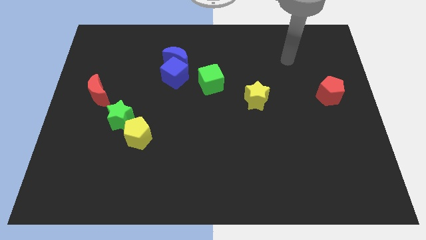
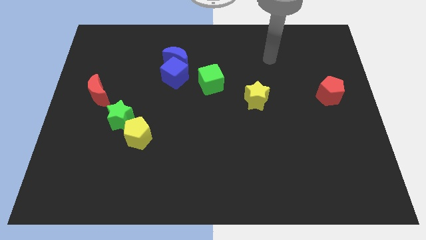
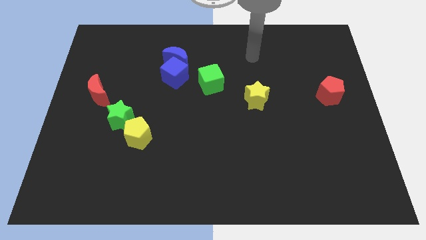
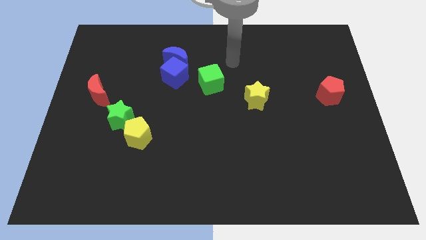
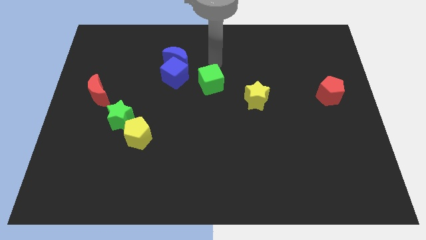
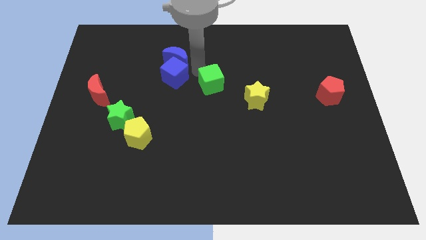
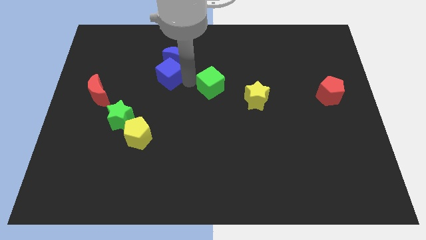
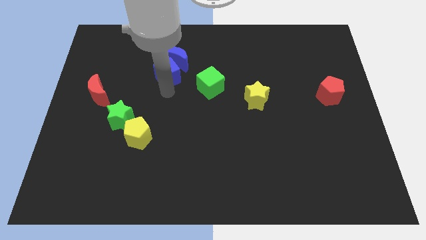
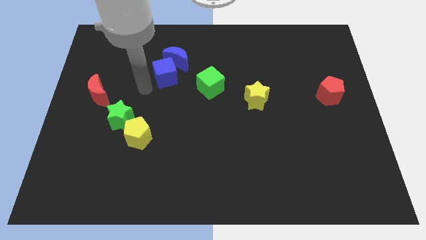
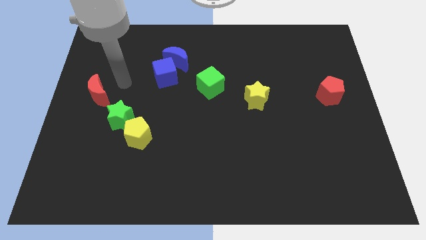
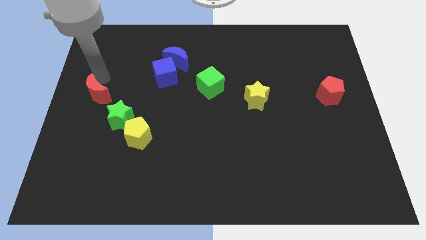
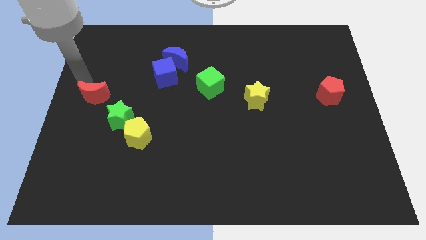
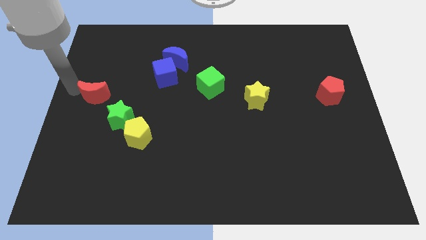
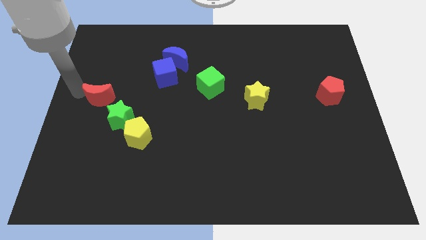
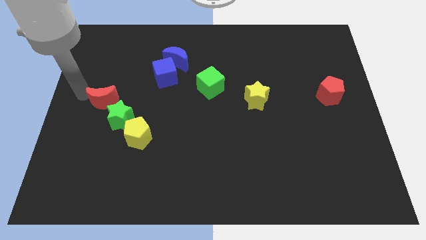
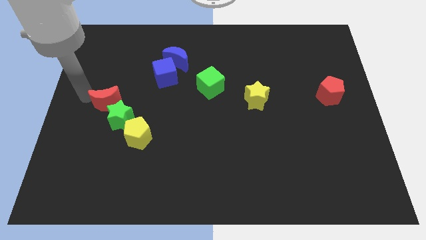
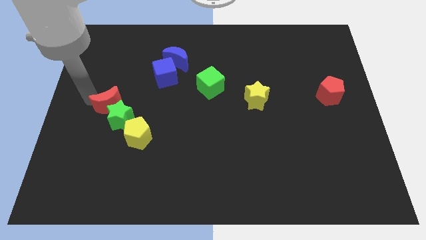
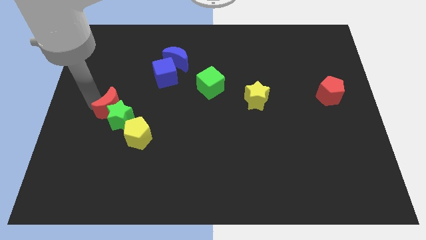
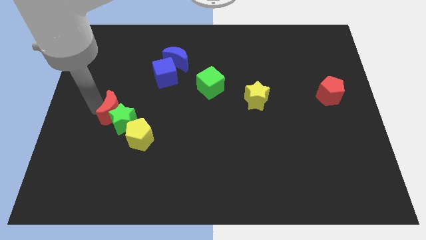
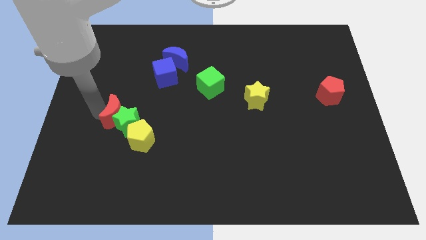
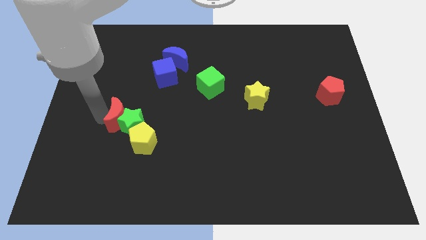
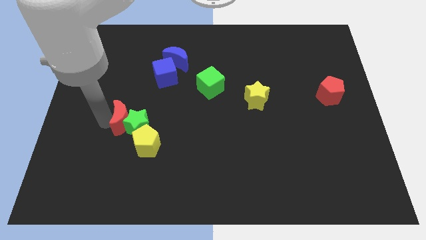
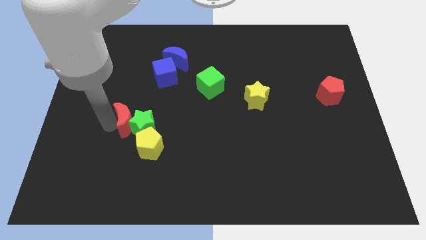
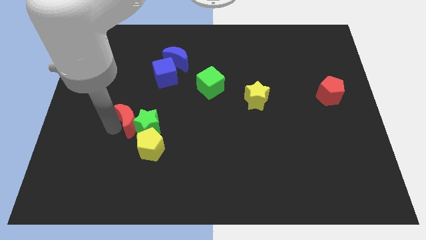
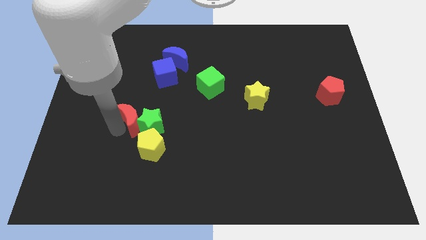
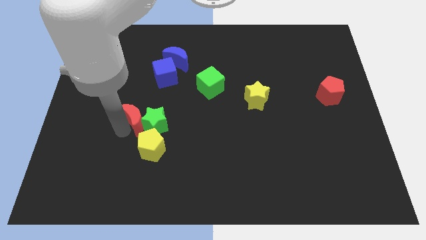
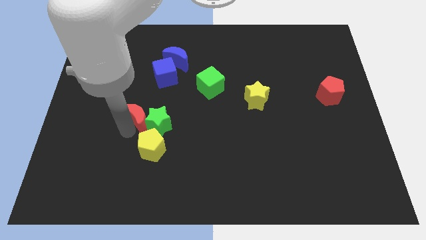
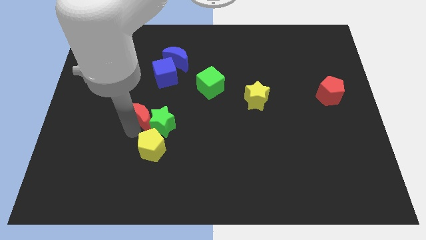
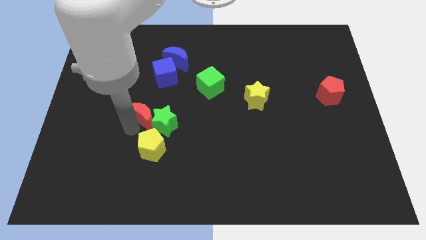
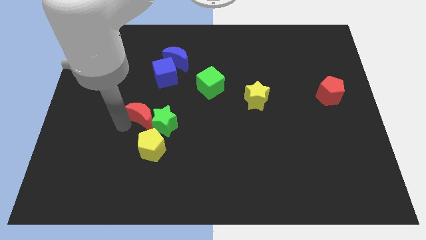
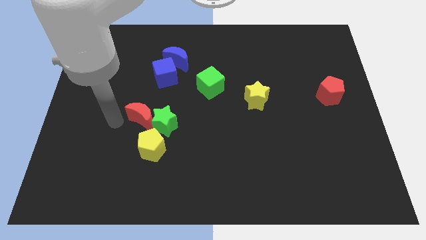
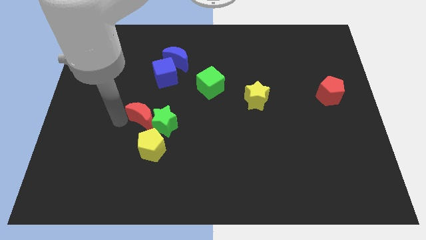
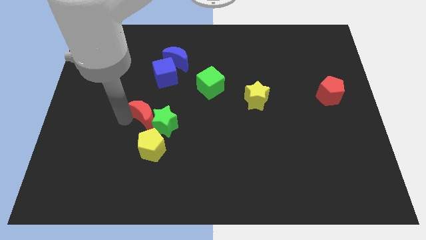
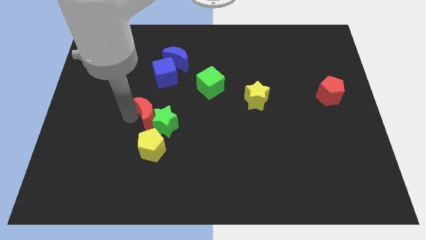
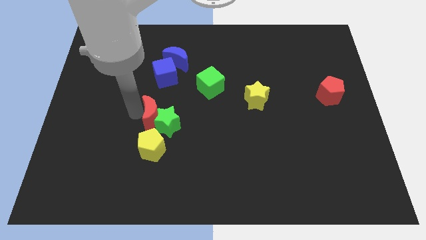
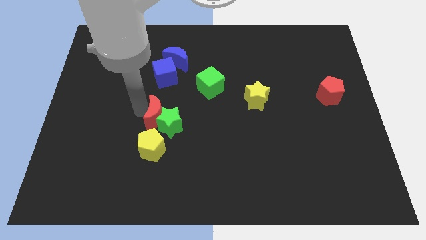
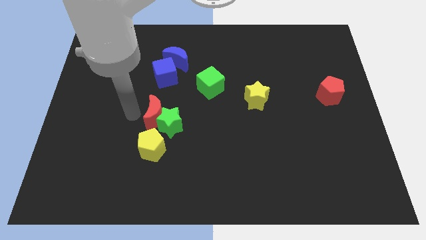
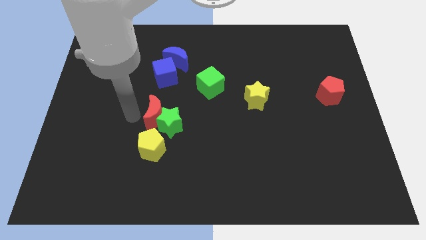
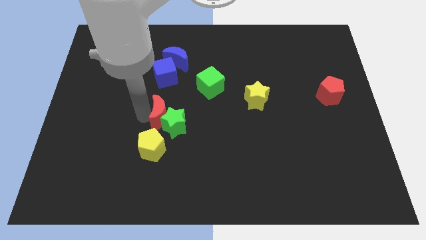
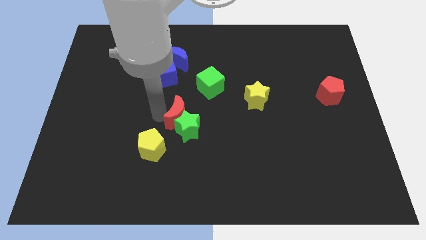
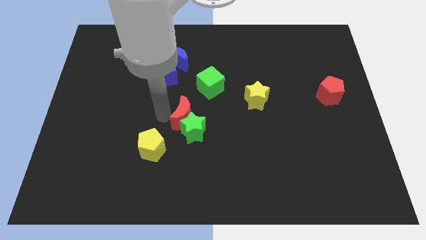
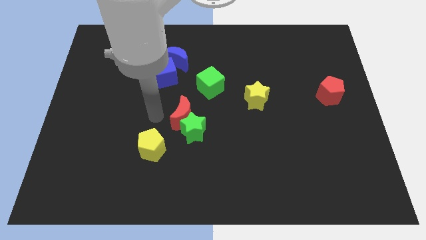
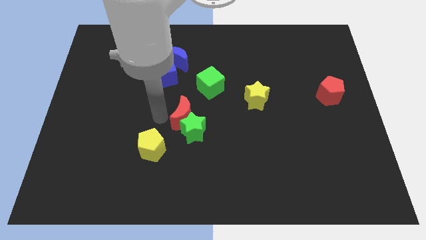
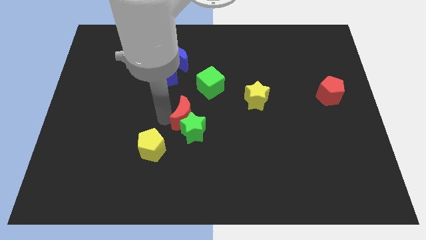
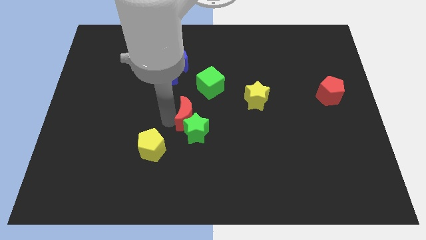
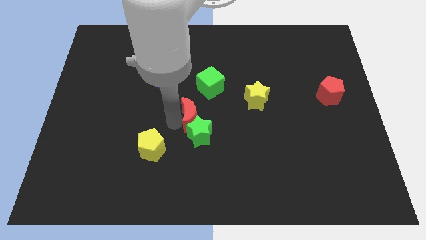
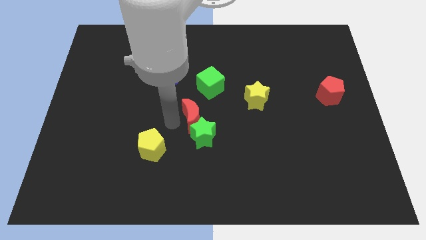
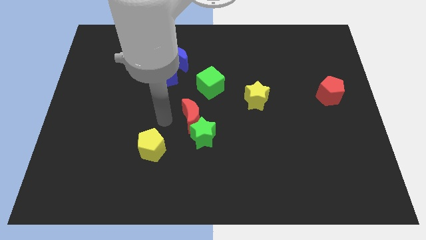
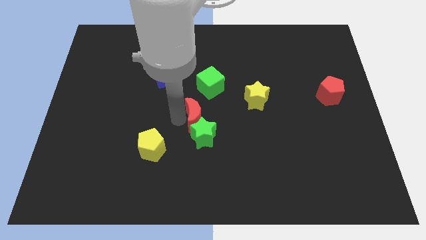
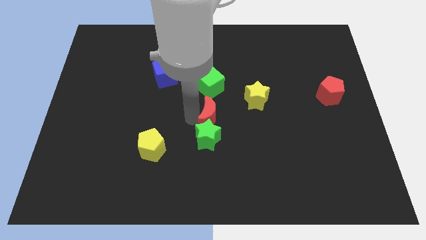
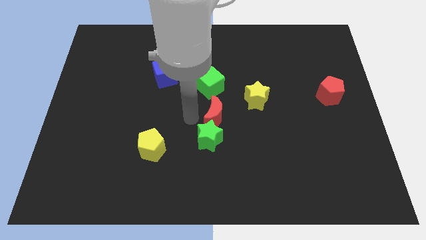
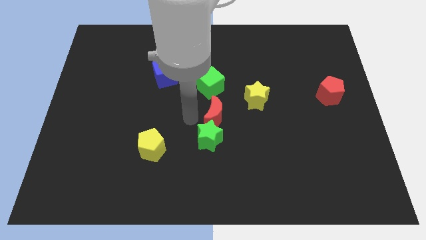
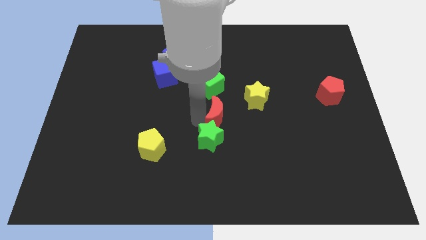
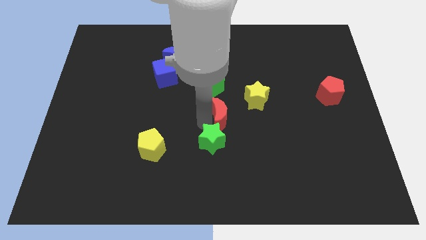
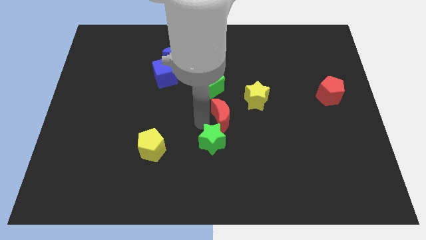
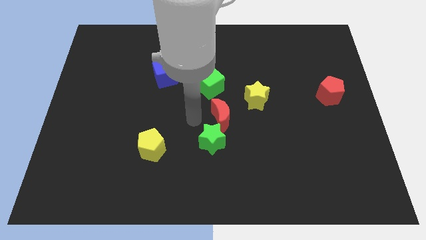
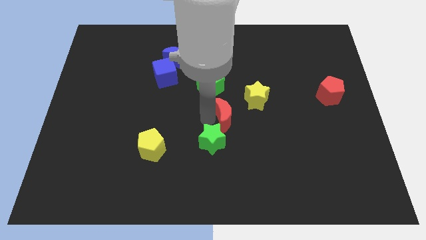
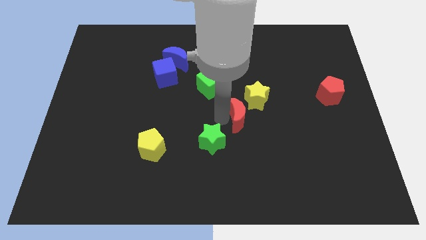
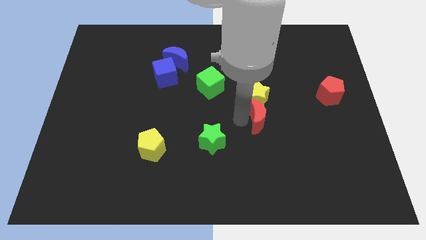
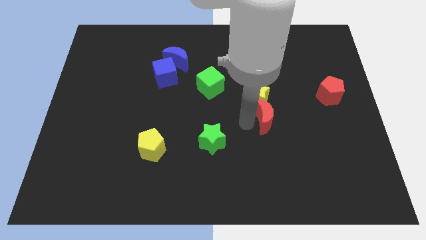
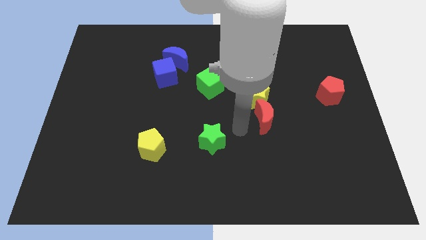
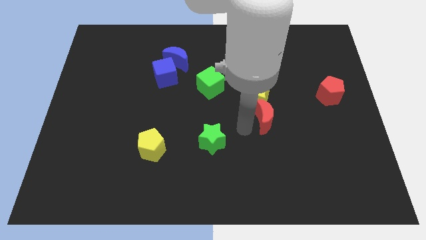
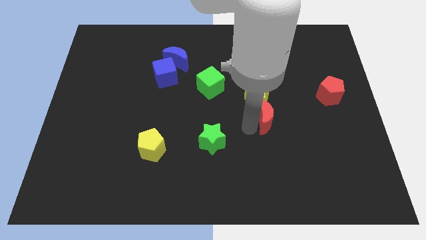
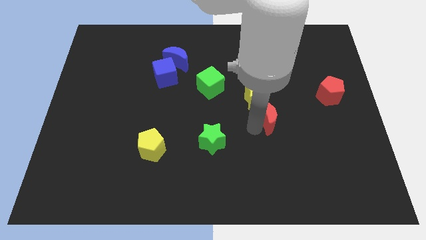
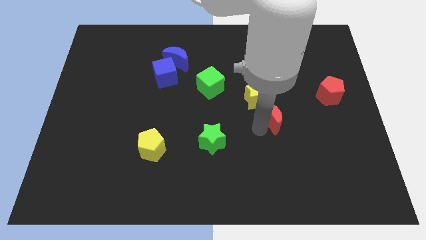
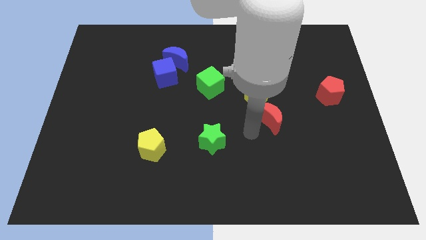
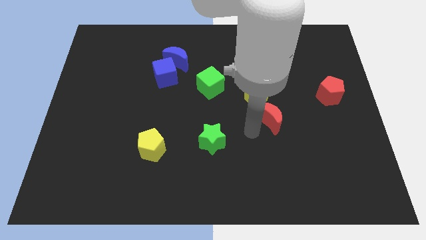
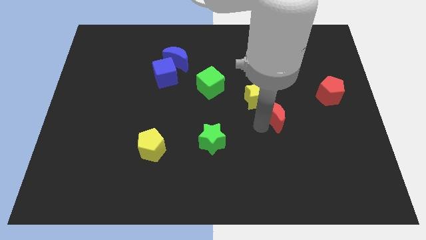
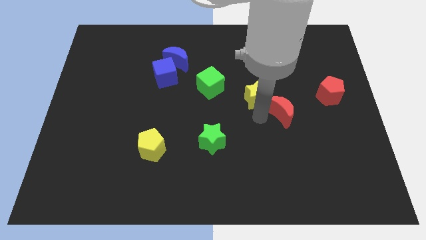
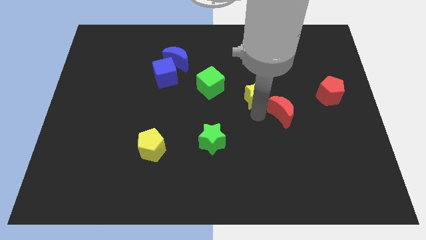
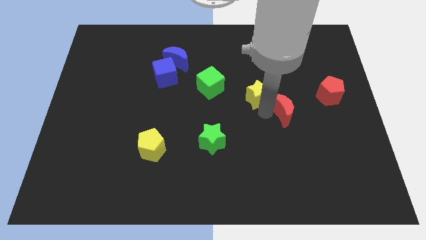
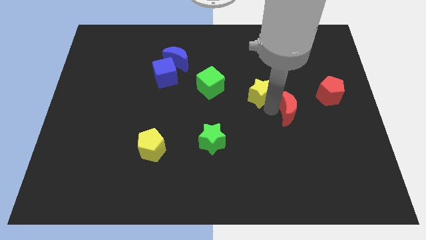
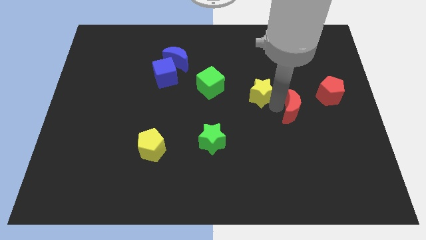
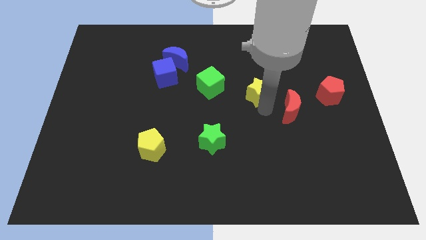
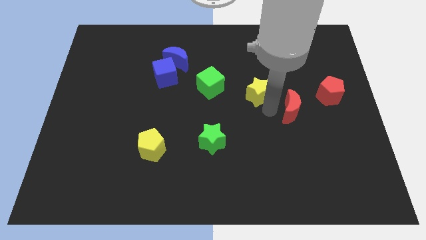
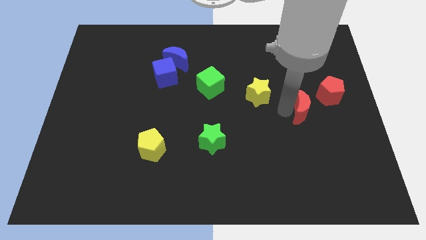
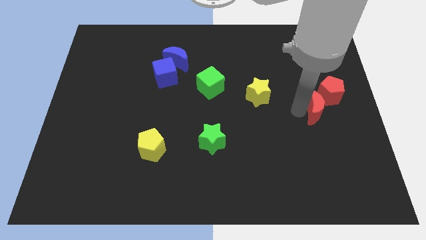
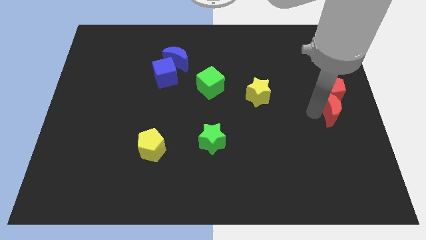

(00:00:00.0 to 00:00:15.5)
slide the red moon to the center right
